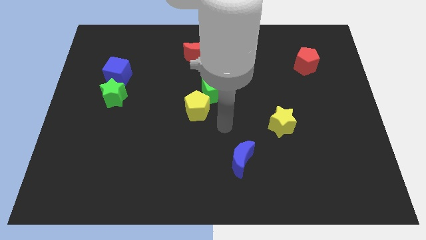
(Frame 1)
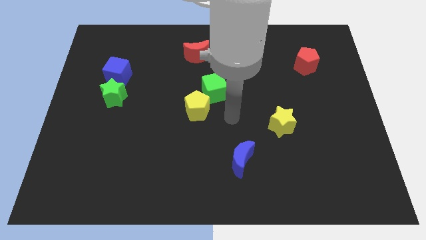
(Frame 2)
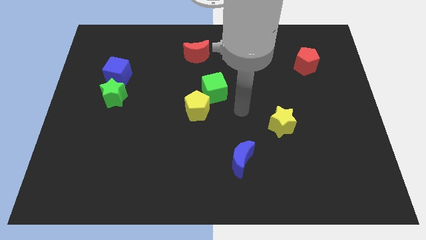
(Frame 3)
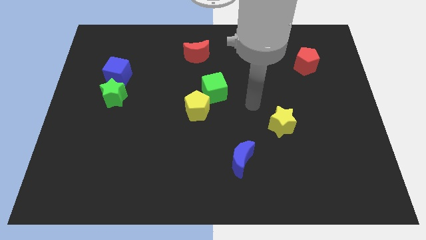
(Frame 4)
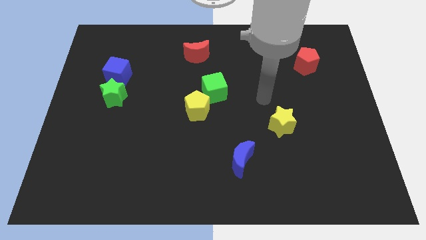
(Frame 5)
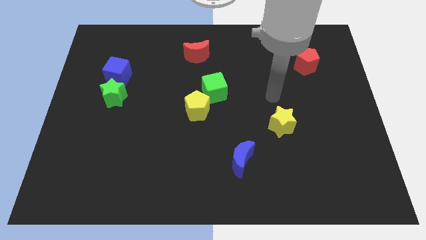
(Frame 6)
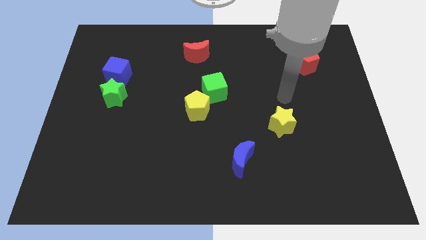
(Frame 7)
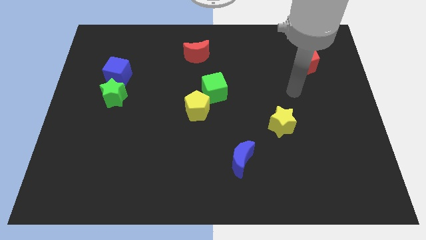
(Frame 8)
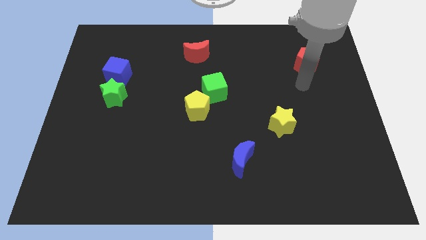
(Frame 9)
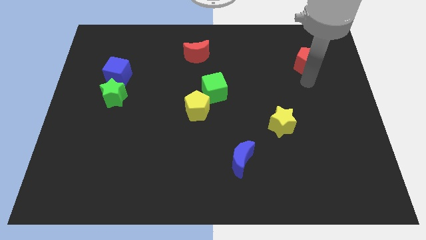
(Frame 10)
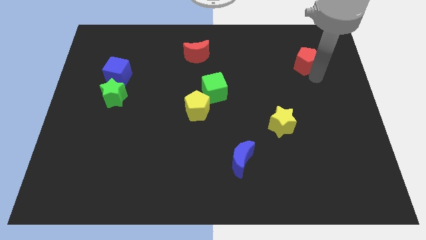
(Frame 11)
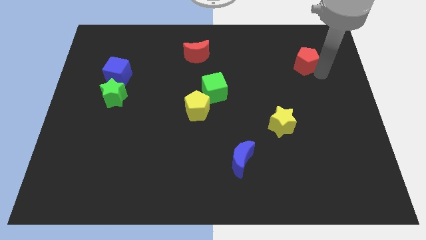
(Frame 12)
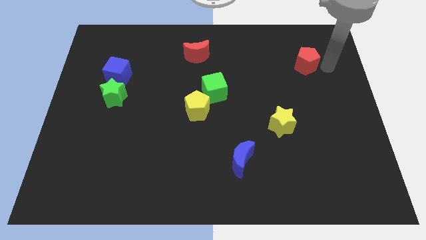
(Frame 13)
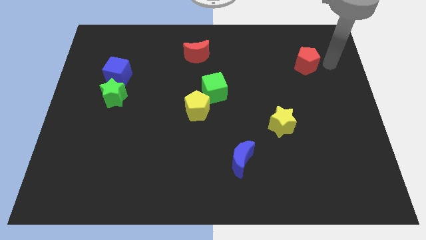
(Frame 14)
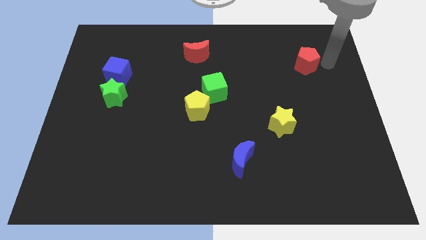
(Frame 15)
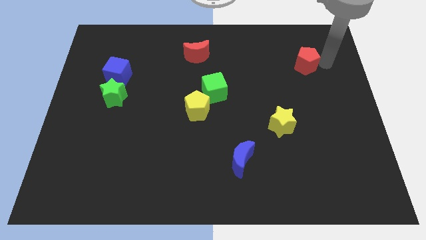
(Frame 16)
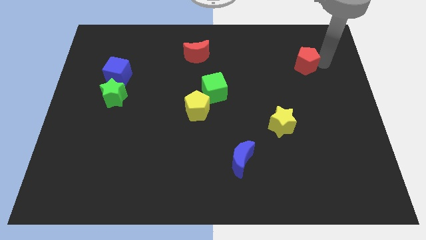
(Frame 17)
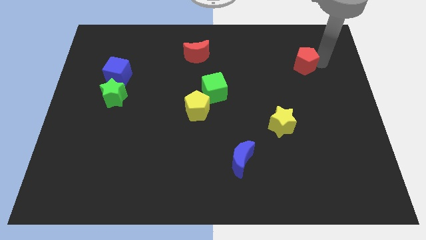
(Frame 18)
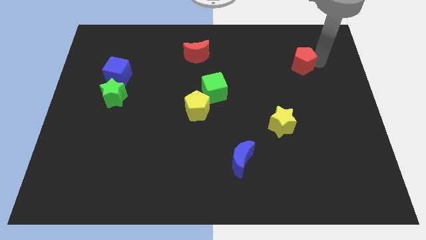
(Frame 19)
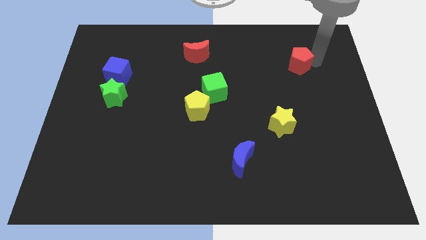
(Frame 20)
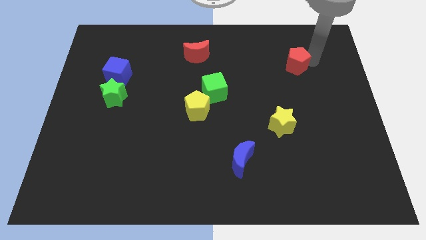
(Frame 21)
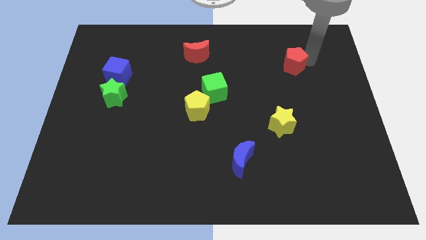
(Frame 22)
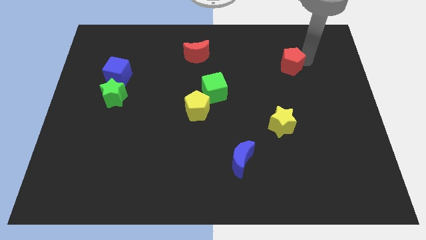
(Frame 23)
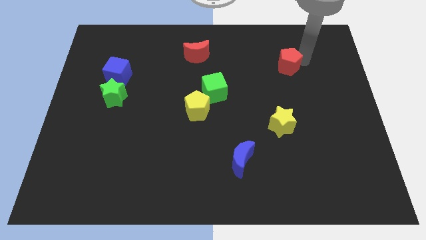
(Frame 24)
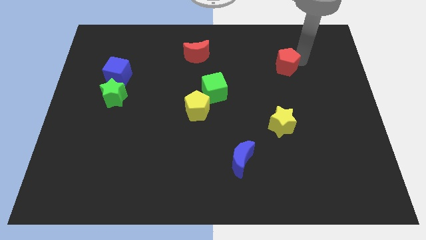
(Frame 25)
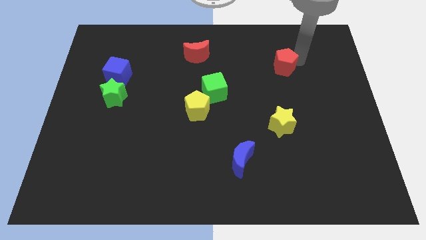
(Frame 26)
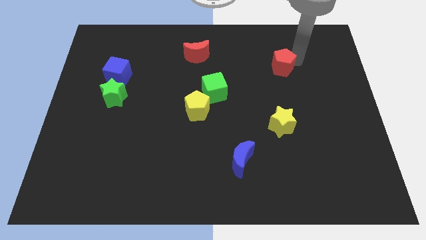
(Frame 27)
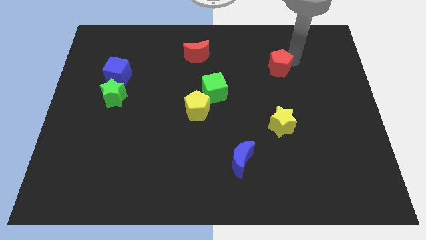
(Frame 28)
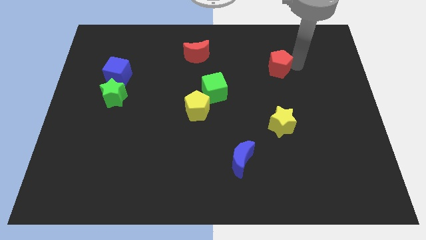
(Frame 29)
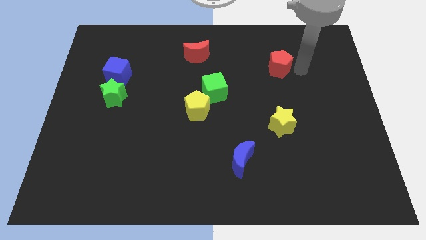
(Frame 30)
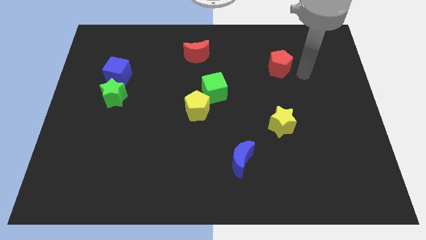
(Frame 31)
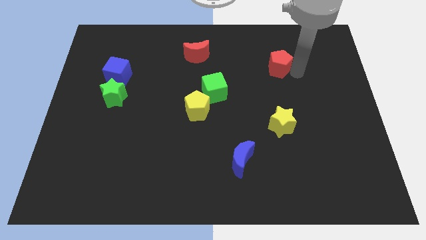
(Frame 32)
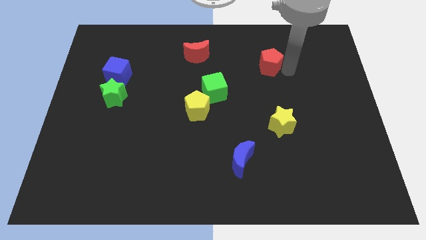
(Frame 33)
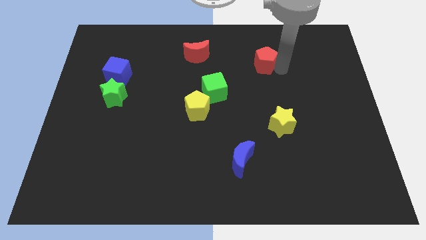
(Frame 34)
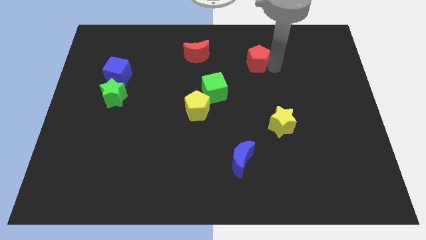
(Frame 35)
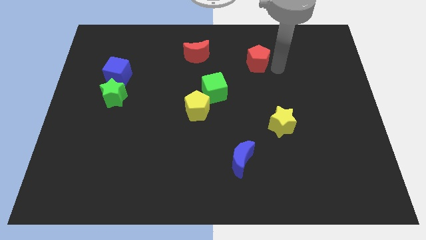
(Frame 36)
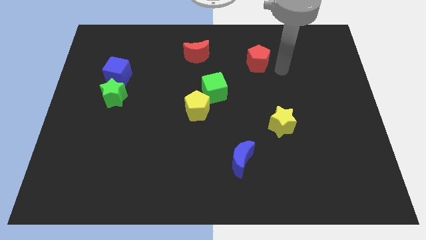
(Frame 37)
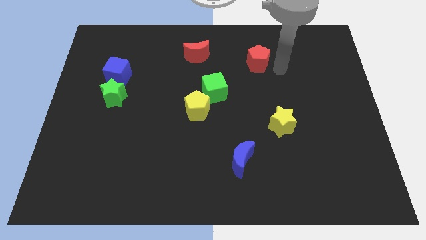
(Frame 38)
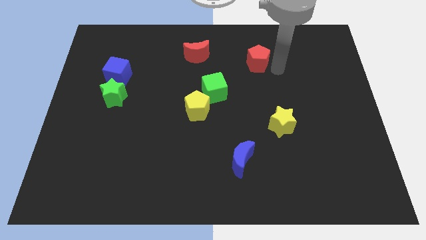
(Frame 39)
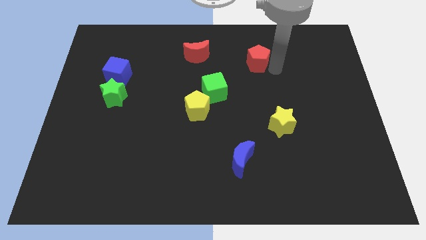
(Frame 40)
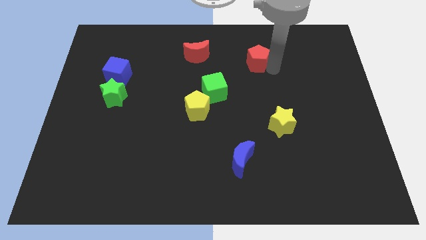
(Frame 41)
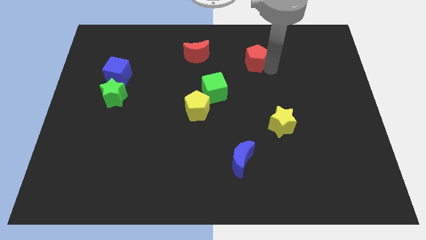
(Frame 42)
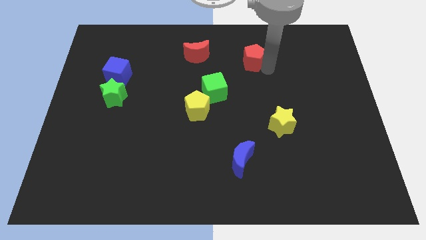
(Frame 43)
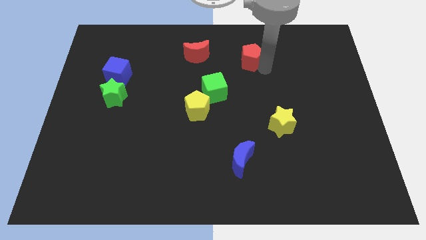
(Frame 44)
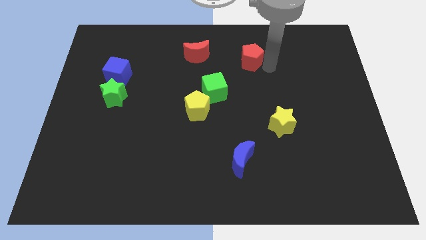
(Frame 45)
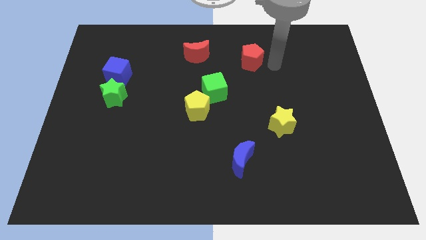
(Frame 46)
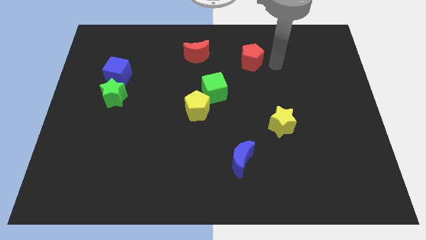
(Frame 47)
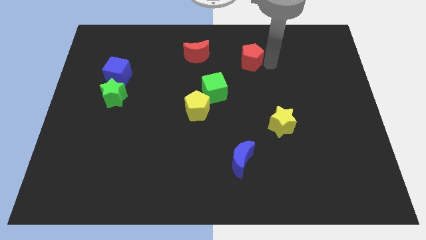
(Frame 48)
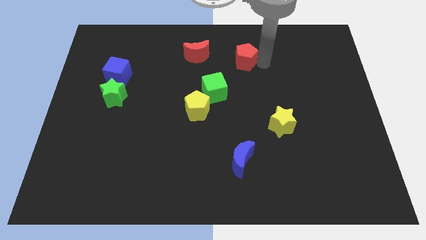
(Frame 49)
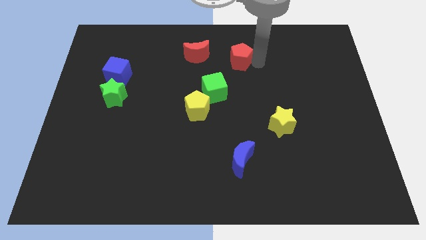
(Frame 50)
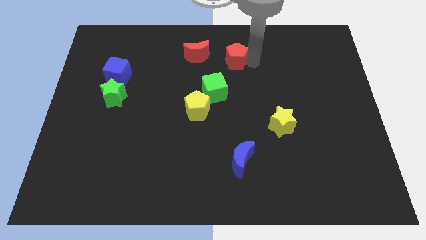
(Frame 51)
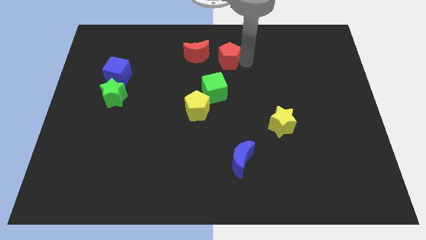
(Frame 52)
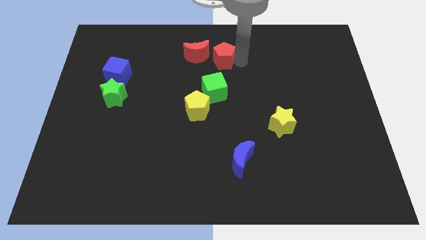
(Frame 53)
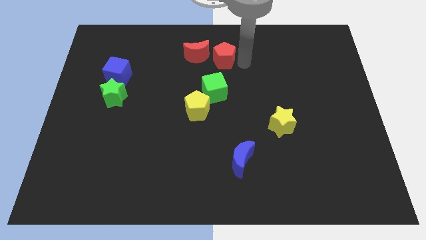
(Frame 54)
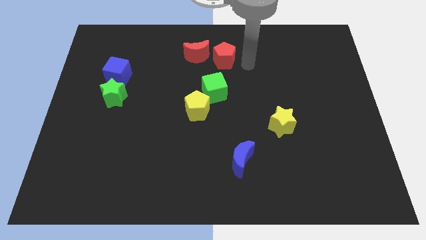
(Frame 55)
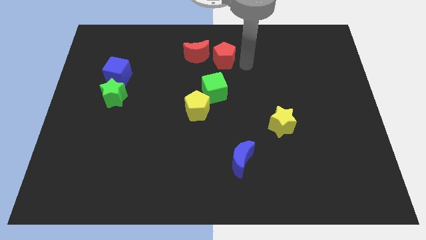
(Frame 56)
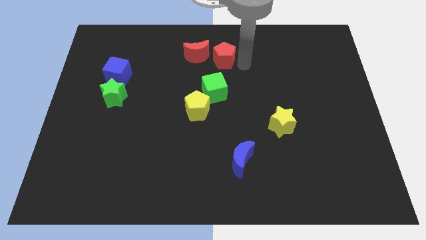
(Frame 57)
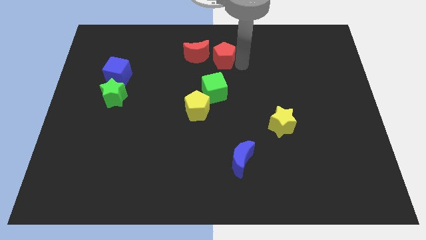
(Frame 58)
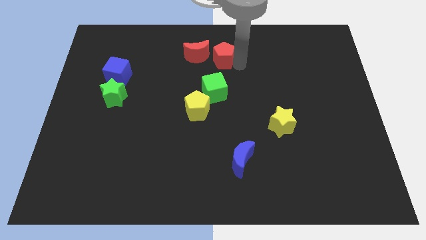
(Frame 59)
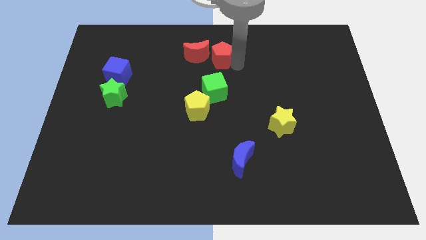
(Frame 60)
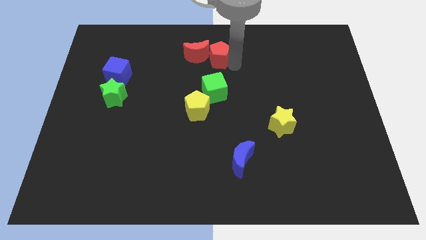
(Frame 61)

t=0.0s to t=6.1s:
slide the red pentagon close to the red moon

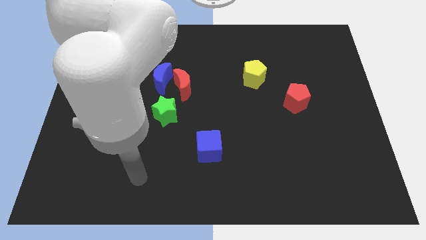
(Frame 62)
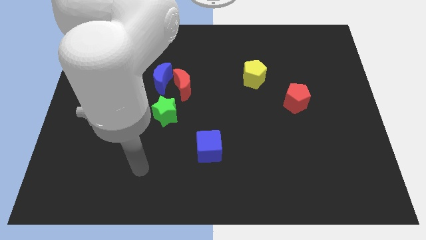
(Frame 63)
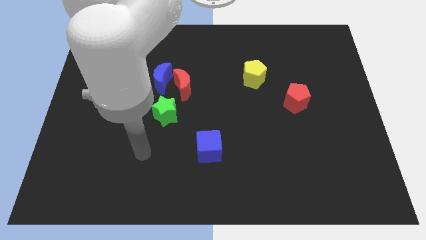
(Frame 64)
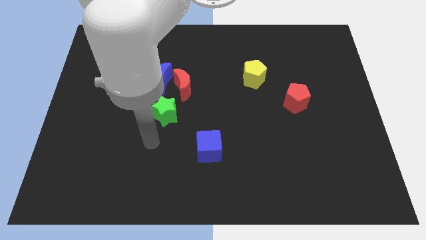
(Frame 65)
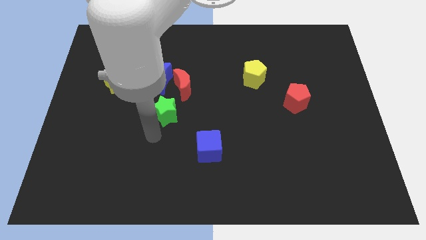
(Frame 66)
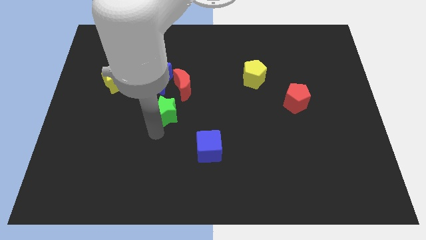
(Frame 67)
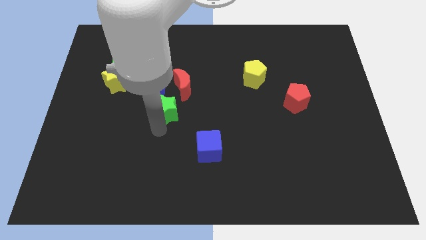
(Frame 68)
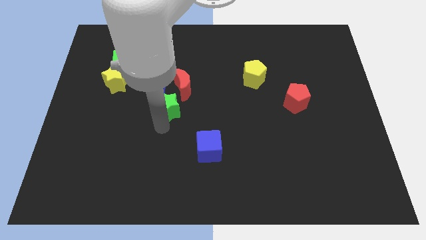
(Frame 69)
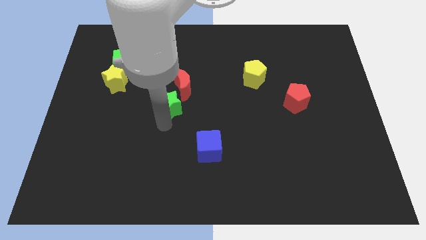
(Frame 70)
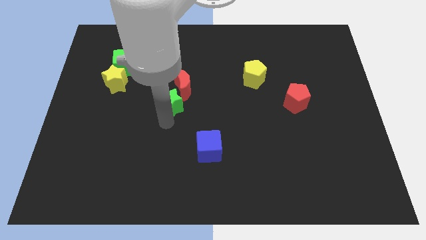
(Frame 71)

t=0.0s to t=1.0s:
move the green star close to the red moon
